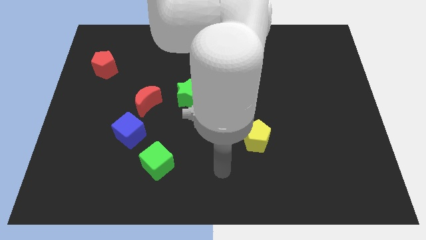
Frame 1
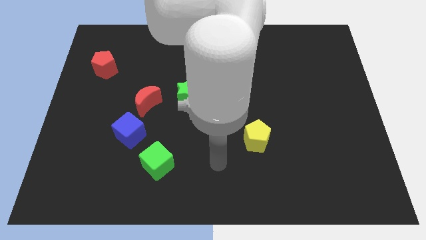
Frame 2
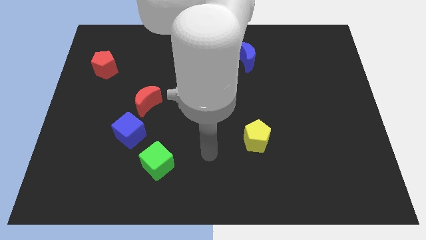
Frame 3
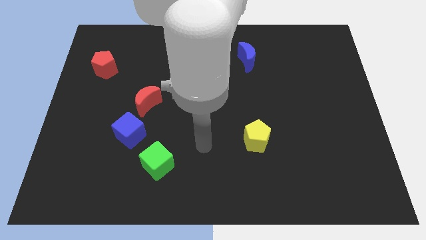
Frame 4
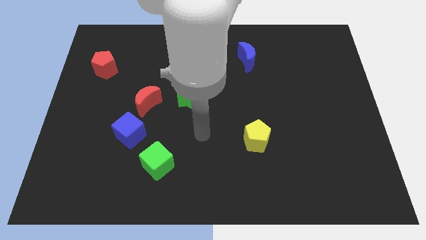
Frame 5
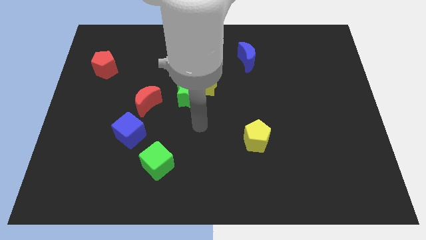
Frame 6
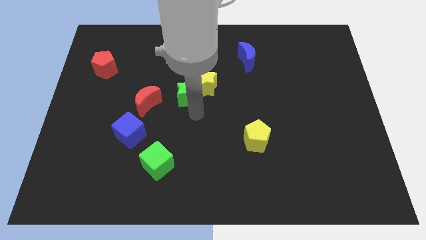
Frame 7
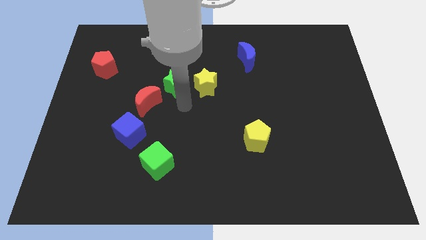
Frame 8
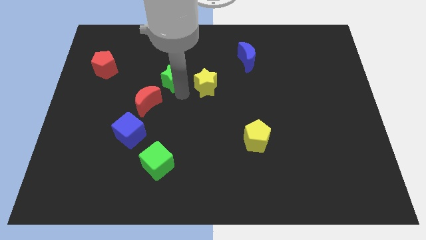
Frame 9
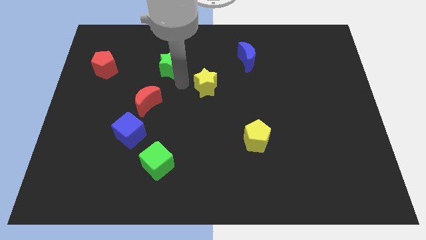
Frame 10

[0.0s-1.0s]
pull the yellow star apart from the green star

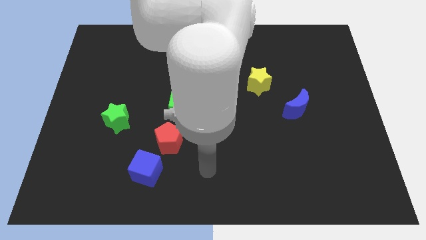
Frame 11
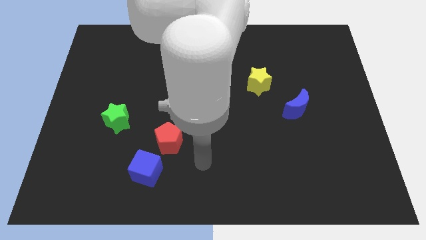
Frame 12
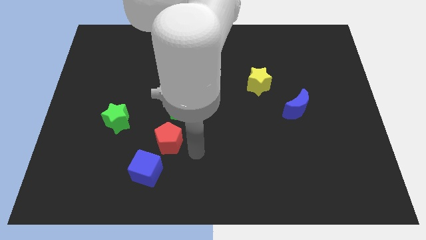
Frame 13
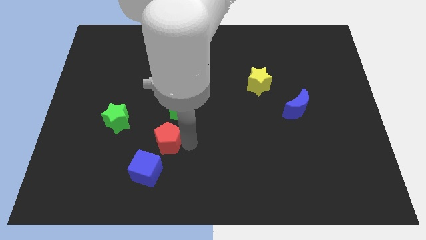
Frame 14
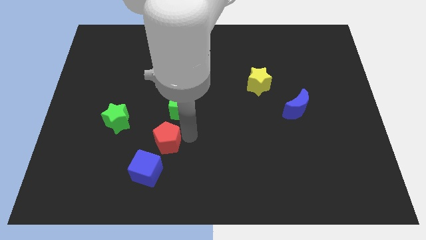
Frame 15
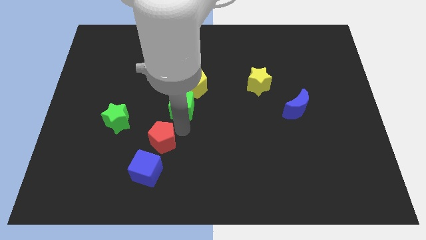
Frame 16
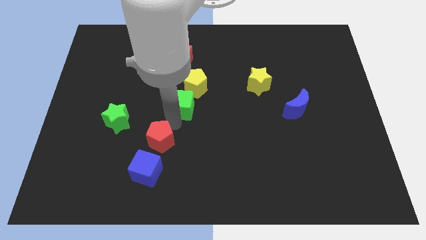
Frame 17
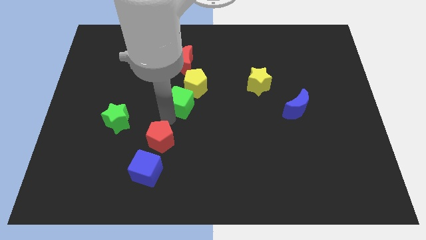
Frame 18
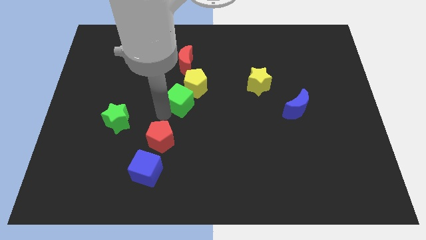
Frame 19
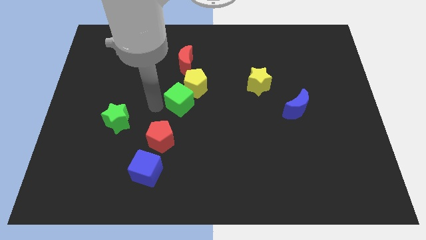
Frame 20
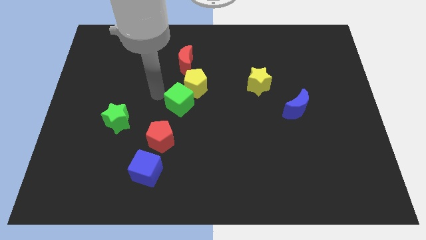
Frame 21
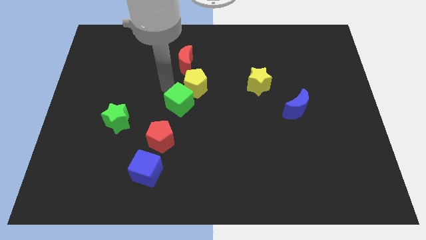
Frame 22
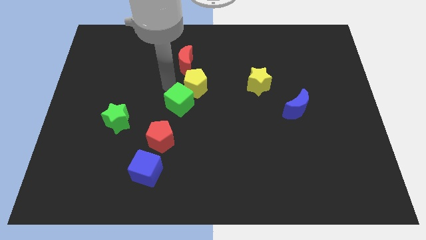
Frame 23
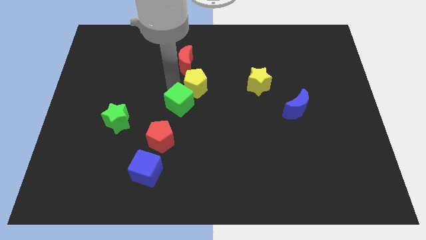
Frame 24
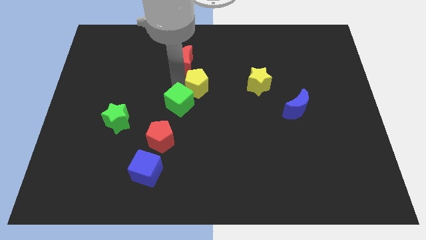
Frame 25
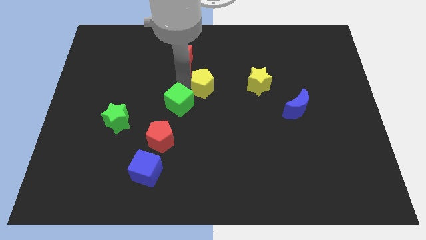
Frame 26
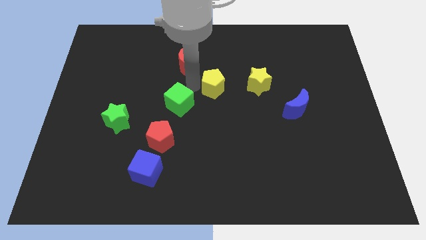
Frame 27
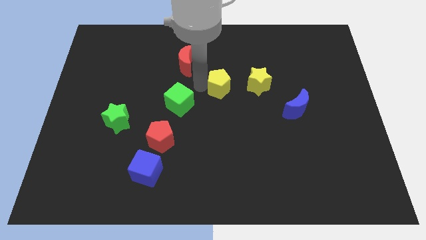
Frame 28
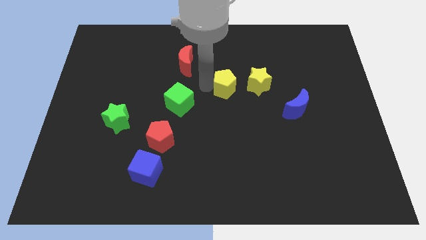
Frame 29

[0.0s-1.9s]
move the yellow pentagon away from the green cube and red moon

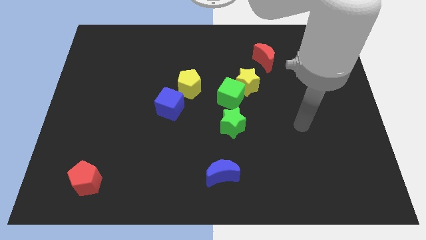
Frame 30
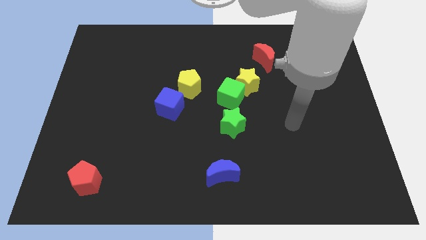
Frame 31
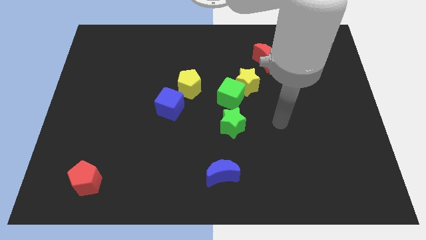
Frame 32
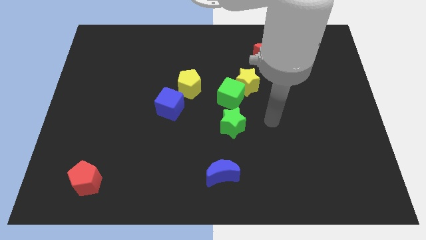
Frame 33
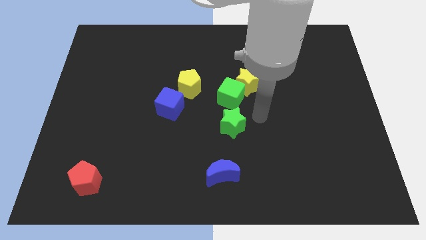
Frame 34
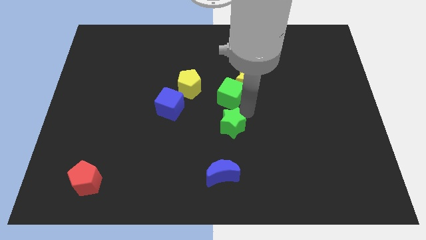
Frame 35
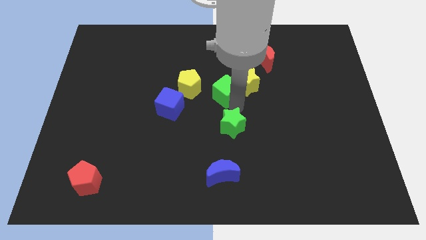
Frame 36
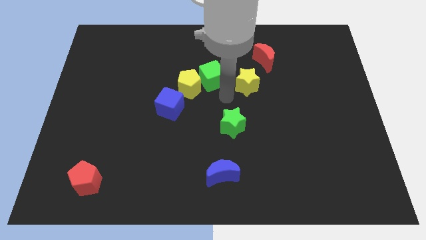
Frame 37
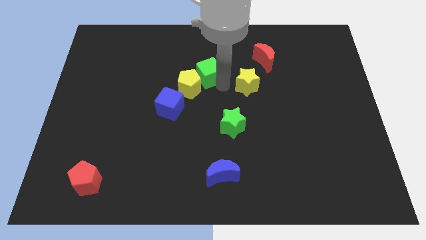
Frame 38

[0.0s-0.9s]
move the yellow star away from the green cube

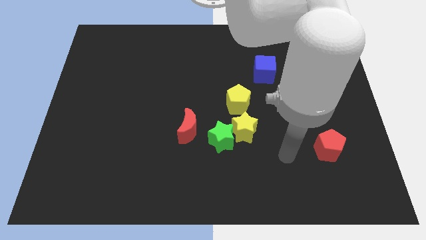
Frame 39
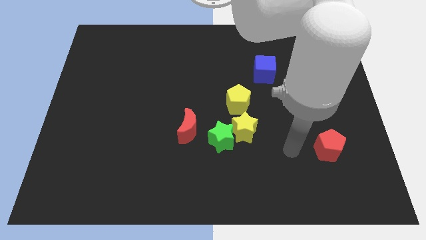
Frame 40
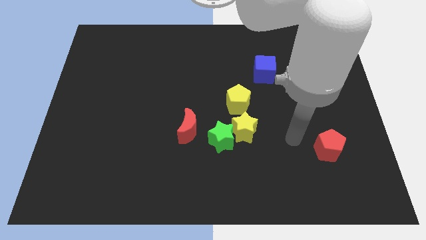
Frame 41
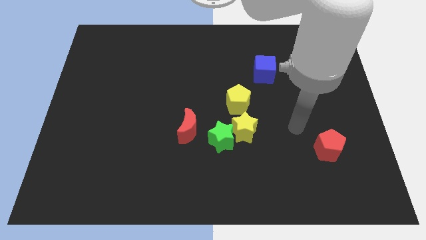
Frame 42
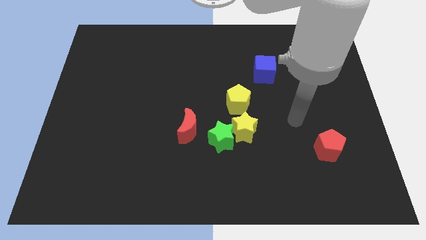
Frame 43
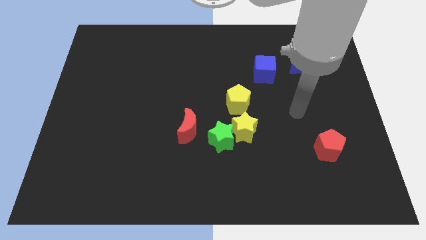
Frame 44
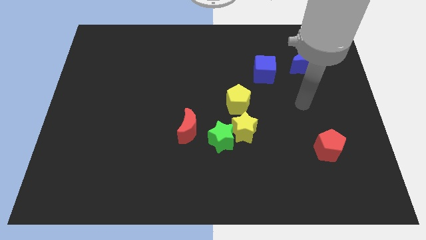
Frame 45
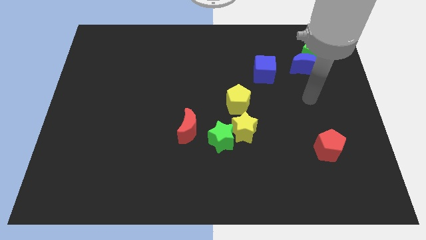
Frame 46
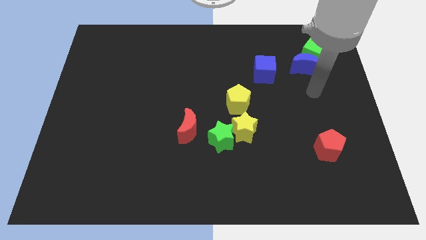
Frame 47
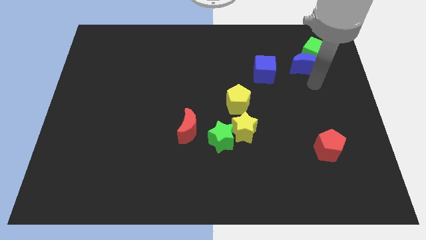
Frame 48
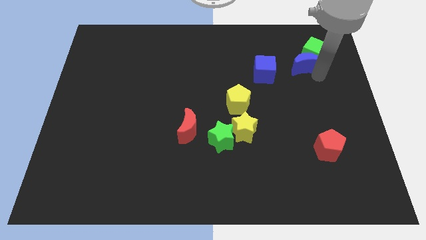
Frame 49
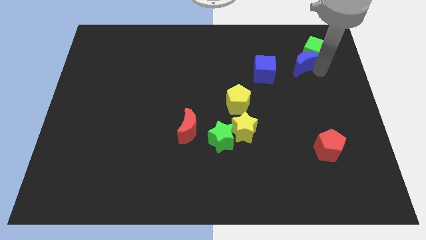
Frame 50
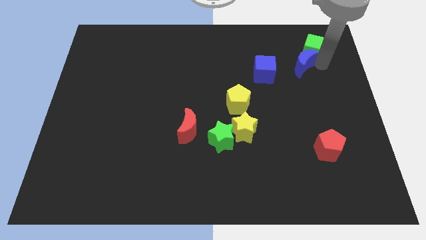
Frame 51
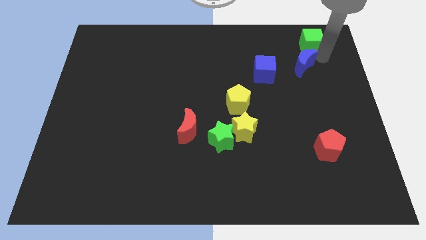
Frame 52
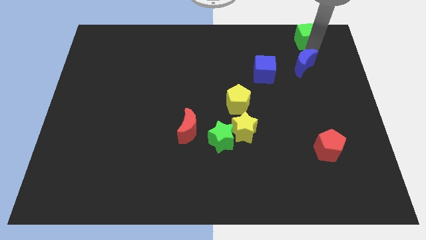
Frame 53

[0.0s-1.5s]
move the blue moon away from the green cube

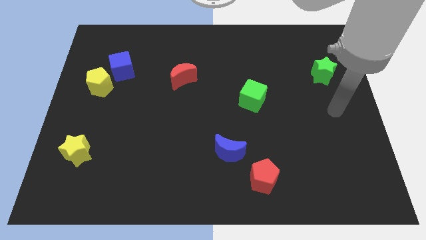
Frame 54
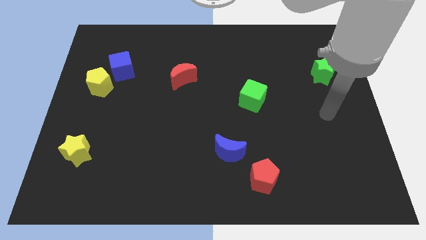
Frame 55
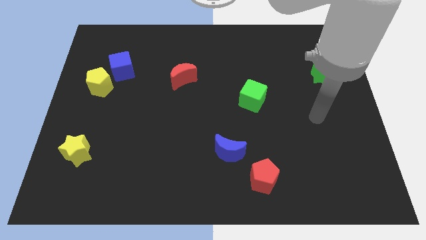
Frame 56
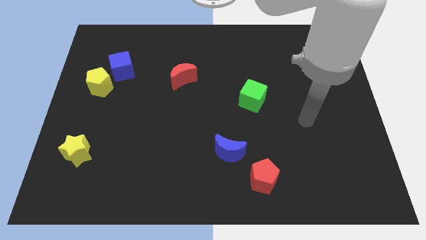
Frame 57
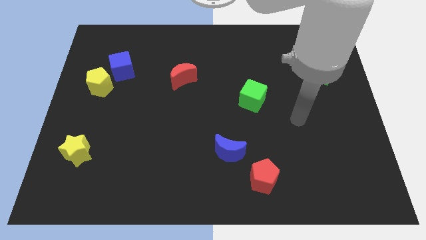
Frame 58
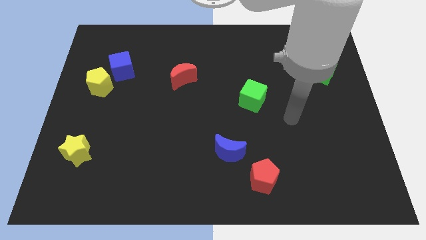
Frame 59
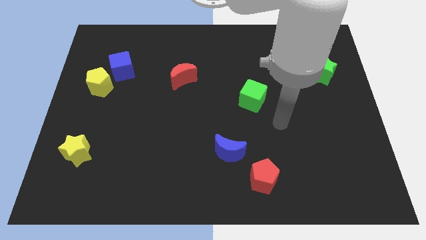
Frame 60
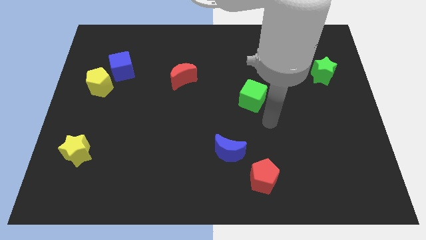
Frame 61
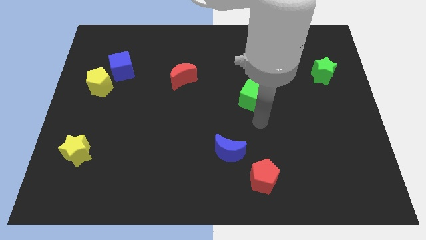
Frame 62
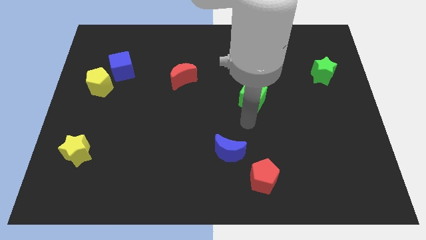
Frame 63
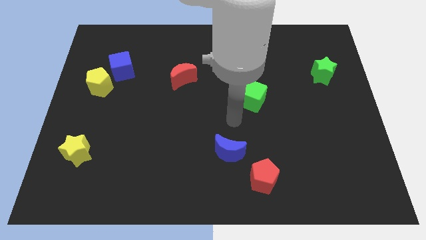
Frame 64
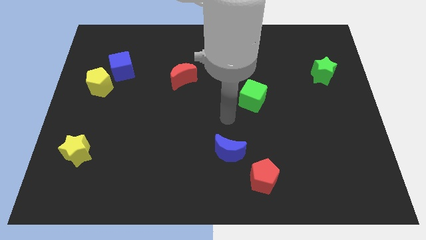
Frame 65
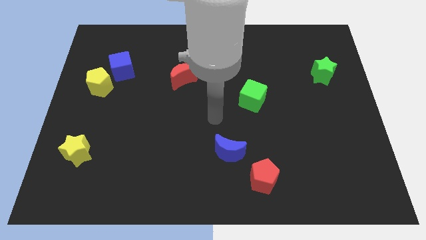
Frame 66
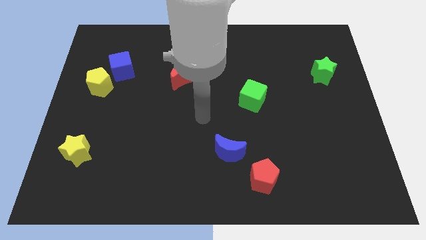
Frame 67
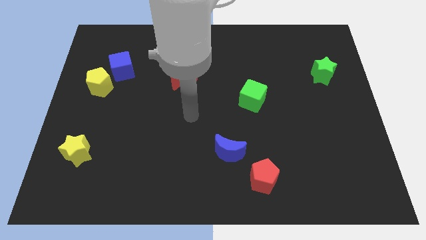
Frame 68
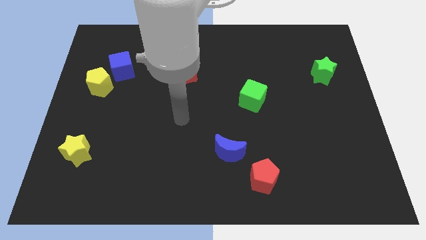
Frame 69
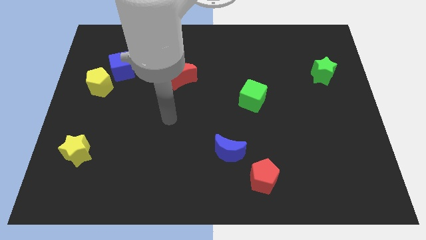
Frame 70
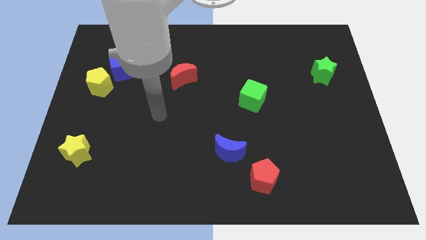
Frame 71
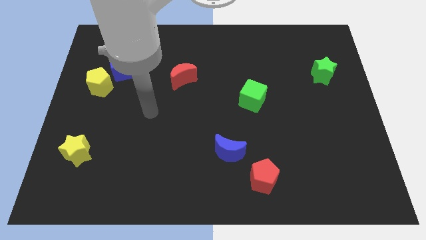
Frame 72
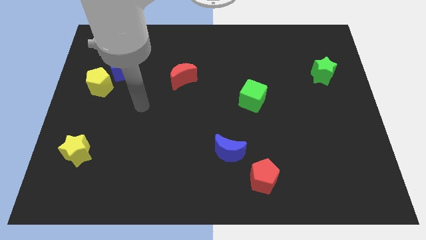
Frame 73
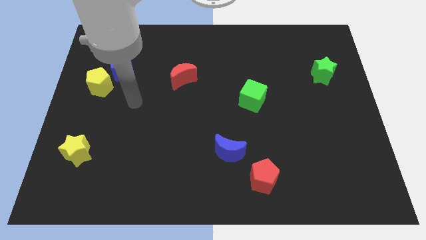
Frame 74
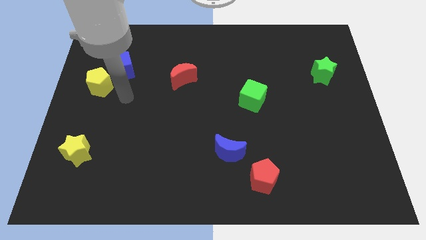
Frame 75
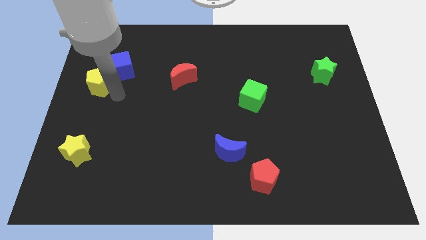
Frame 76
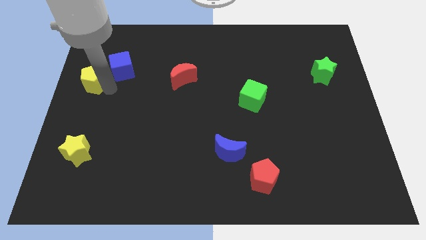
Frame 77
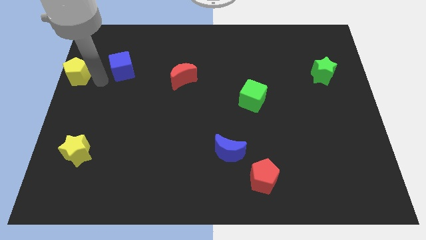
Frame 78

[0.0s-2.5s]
separate the blue cube from the yellow pentagon

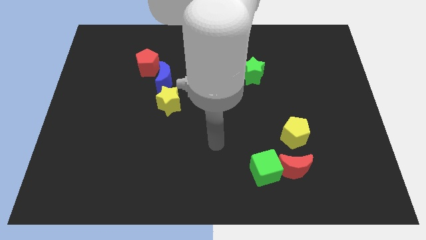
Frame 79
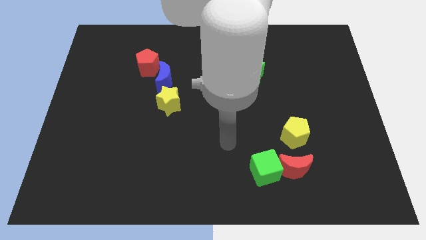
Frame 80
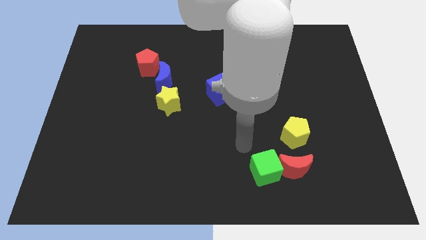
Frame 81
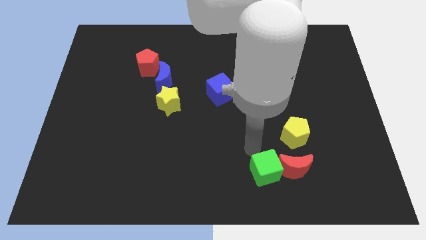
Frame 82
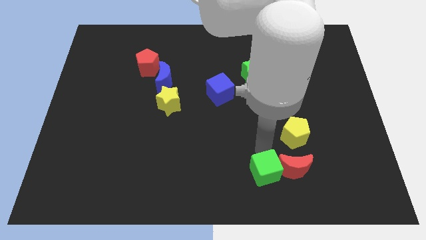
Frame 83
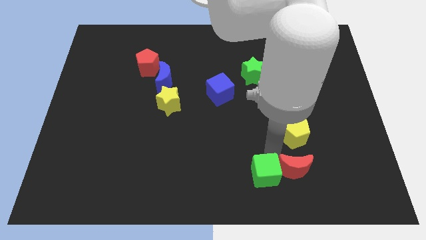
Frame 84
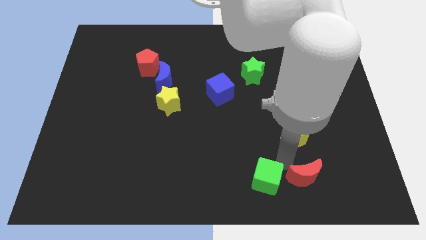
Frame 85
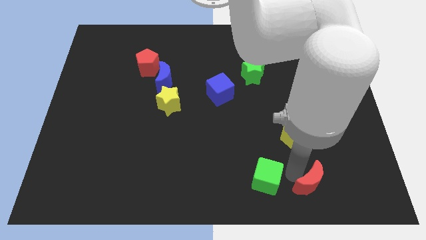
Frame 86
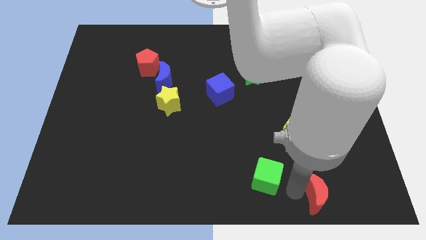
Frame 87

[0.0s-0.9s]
separate the green cube from the red moon

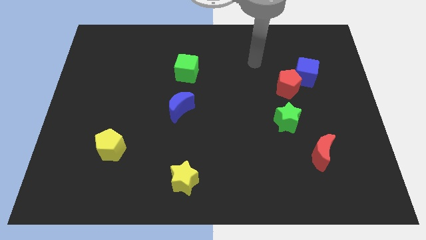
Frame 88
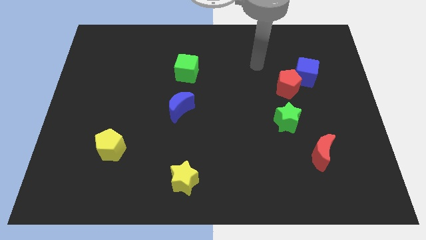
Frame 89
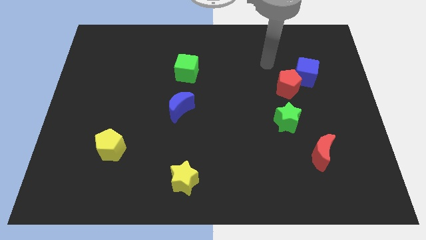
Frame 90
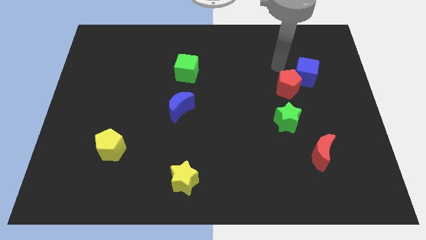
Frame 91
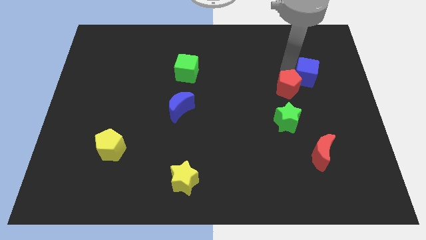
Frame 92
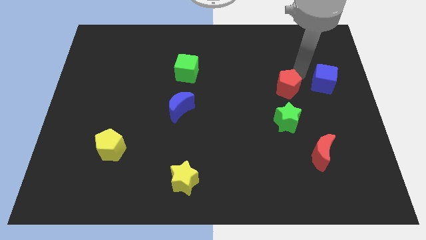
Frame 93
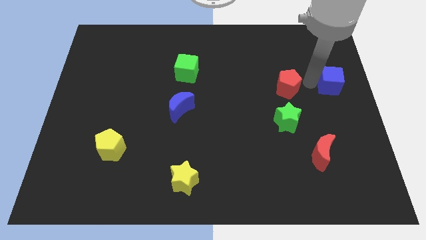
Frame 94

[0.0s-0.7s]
pull the red pentagon apart from the blue cube
